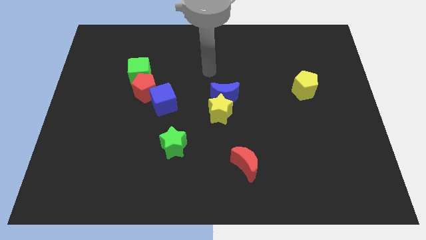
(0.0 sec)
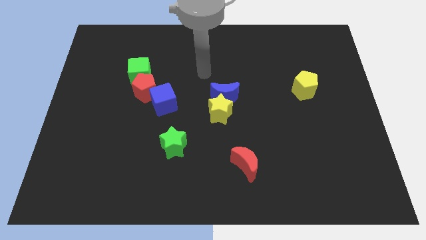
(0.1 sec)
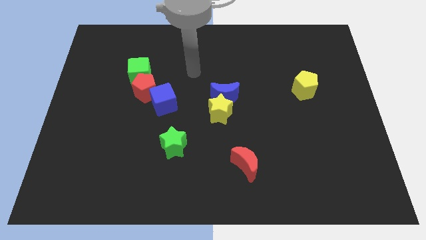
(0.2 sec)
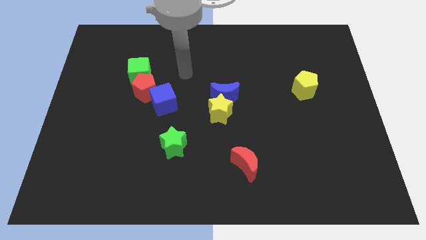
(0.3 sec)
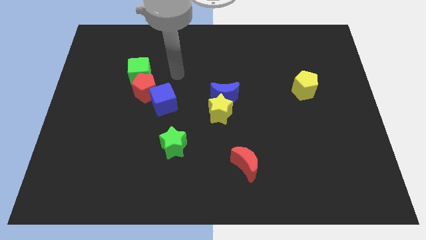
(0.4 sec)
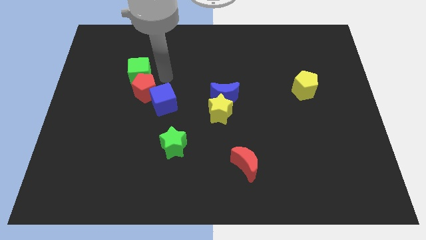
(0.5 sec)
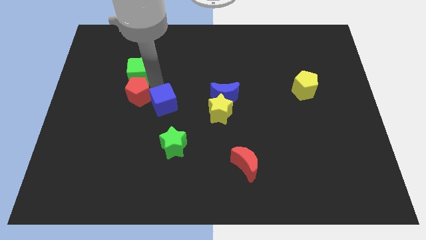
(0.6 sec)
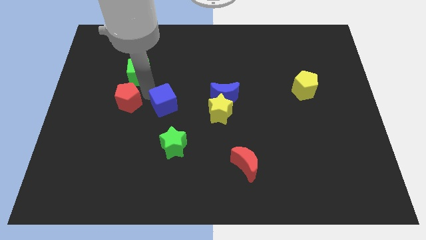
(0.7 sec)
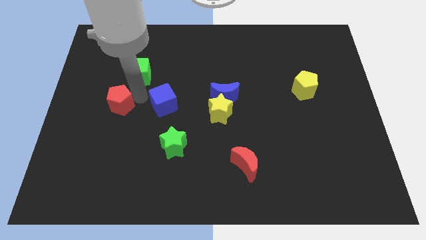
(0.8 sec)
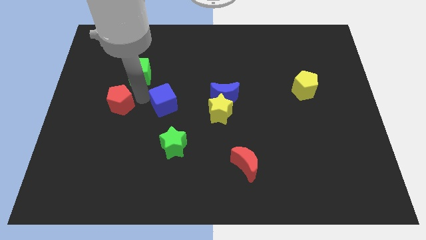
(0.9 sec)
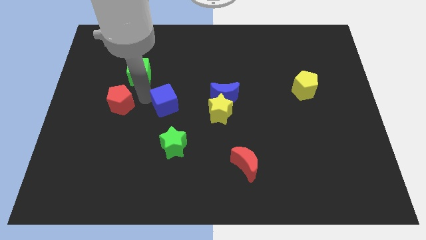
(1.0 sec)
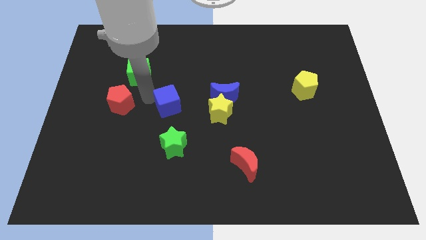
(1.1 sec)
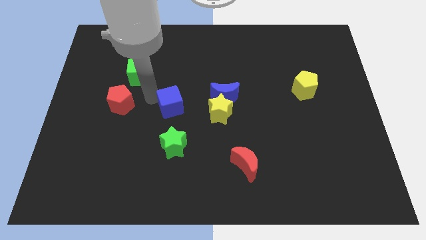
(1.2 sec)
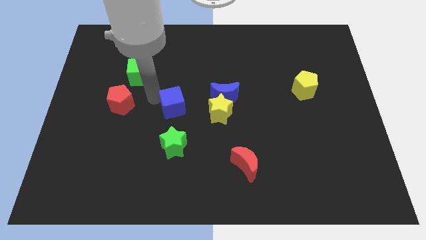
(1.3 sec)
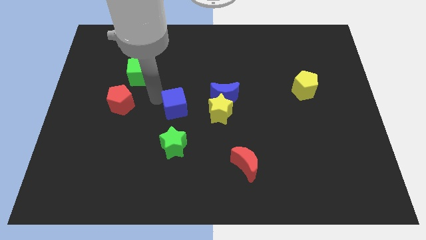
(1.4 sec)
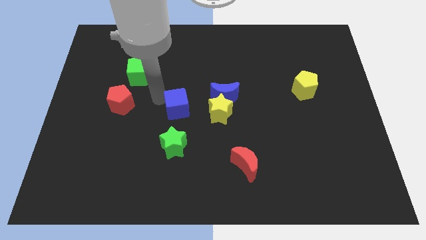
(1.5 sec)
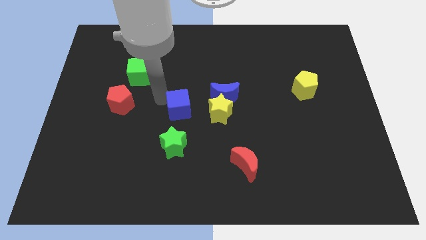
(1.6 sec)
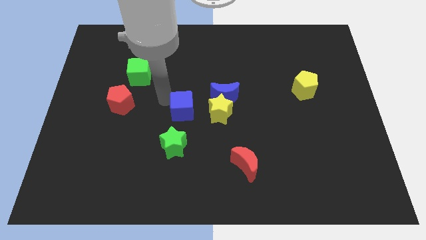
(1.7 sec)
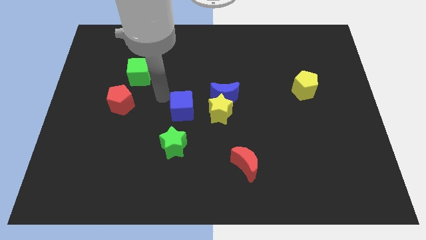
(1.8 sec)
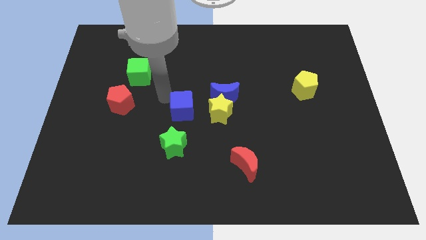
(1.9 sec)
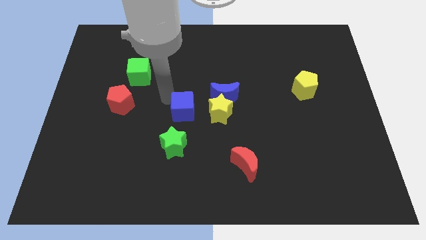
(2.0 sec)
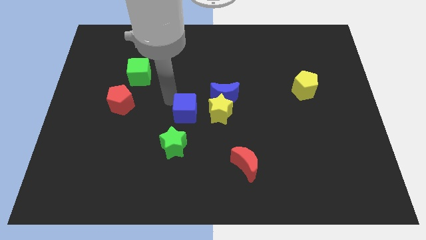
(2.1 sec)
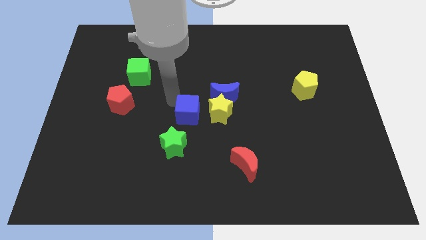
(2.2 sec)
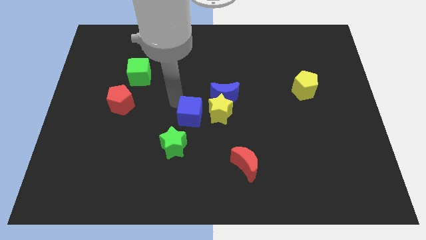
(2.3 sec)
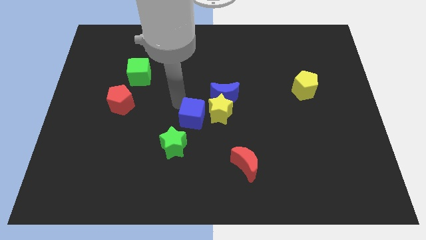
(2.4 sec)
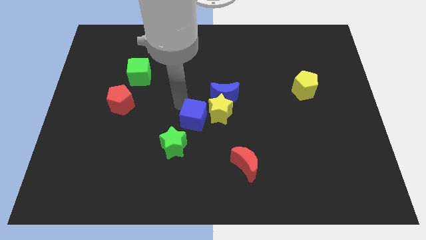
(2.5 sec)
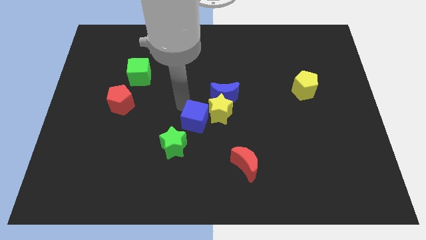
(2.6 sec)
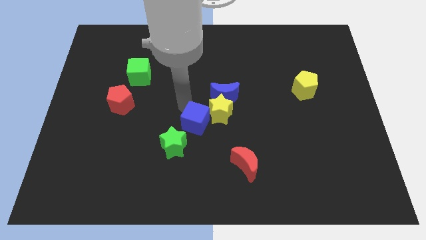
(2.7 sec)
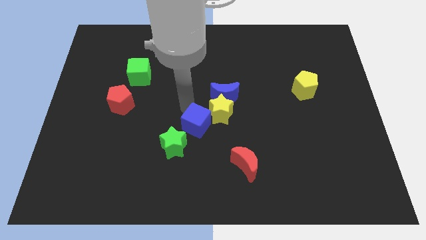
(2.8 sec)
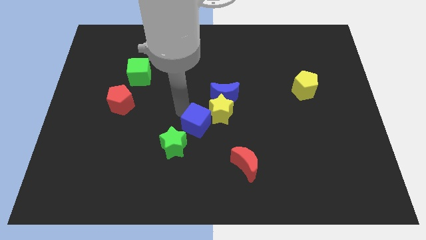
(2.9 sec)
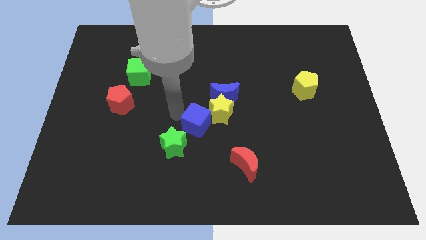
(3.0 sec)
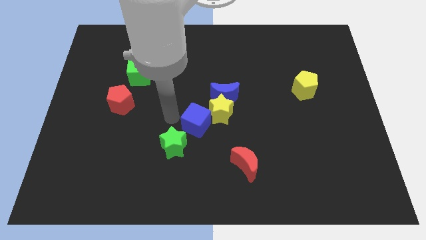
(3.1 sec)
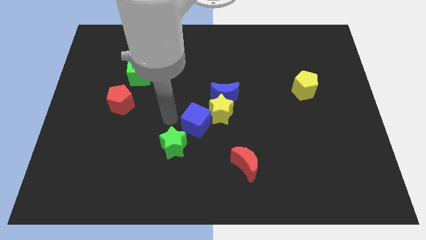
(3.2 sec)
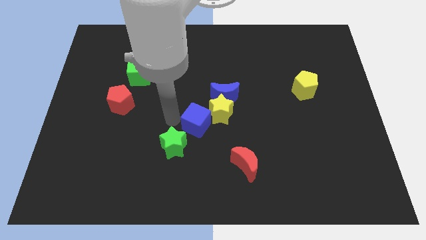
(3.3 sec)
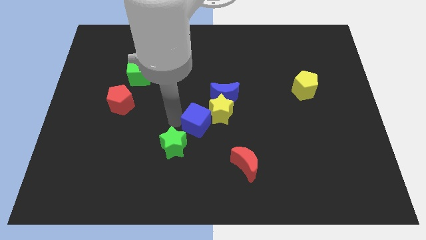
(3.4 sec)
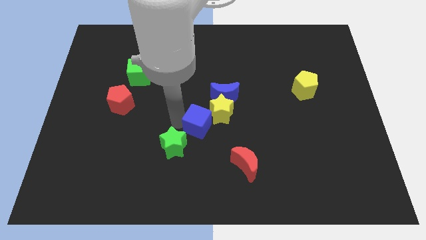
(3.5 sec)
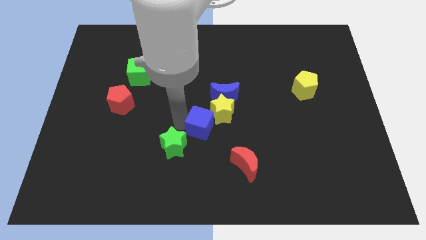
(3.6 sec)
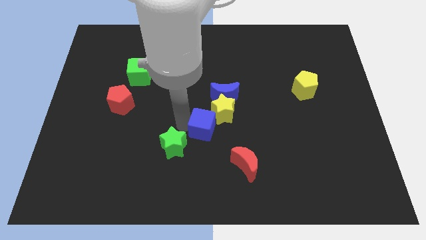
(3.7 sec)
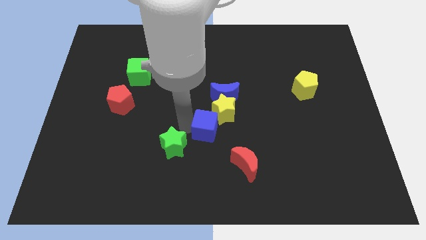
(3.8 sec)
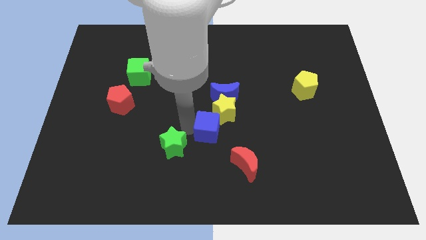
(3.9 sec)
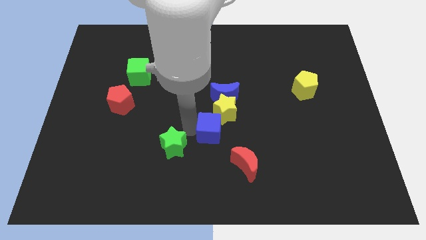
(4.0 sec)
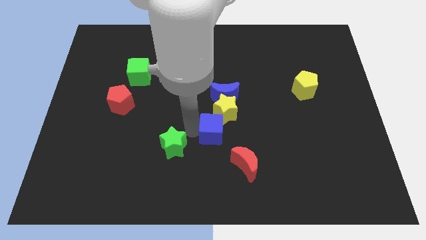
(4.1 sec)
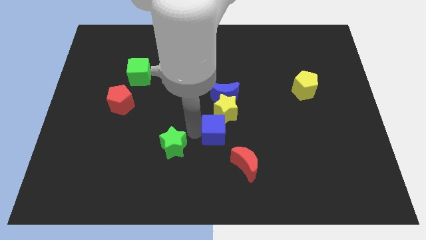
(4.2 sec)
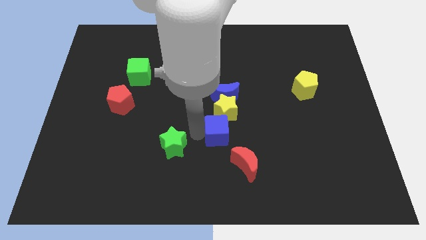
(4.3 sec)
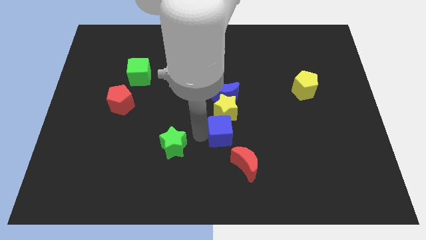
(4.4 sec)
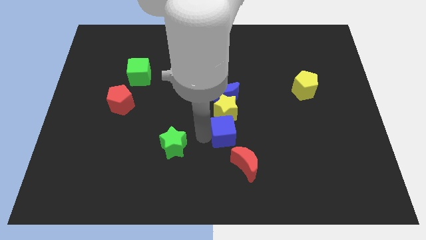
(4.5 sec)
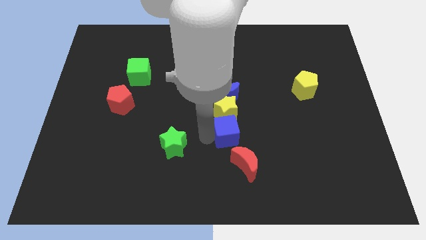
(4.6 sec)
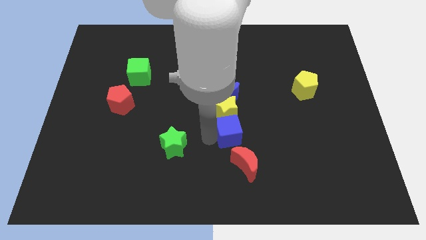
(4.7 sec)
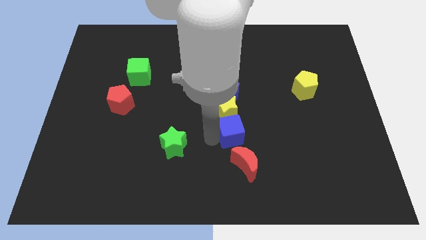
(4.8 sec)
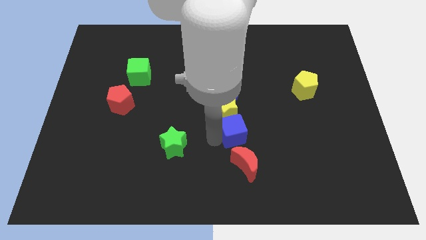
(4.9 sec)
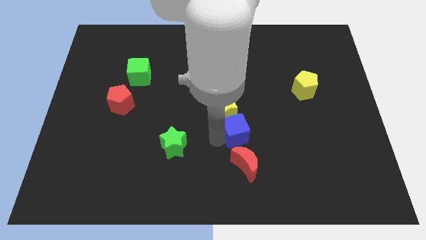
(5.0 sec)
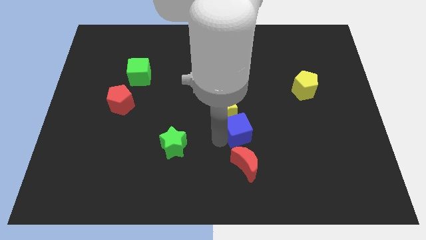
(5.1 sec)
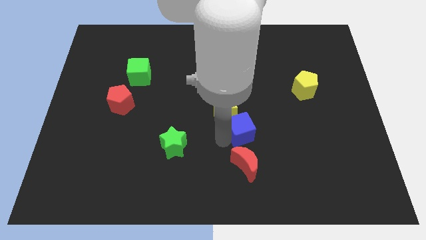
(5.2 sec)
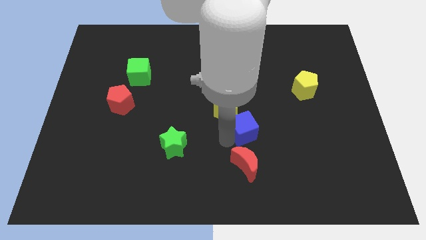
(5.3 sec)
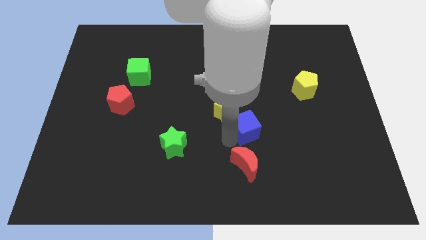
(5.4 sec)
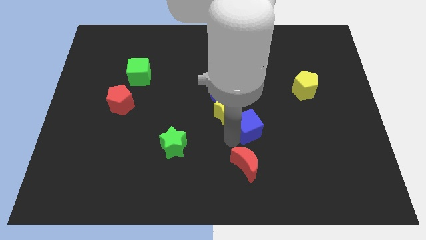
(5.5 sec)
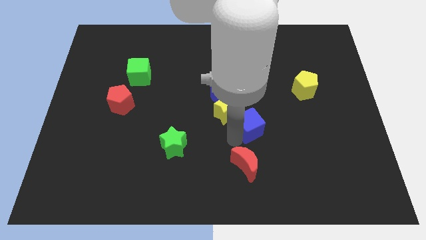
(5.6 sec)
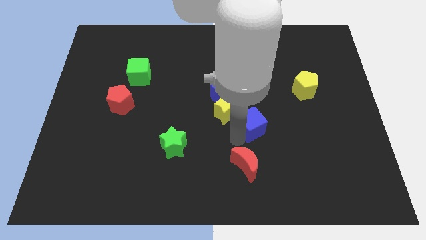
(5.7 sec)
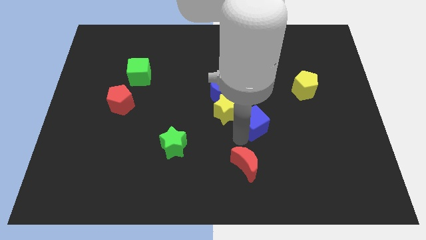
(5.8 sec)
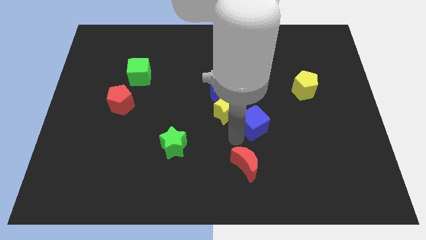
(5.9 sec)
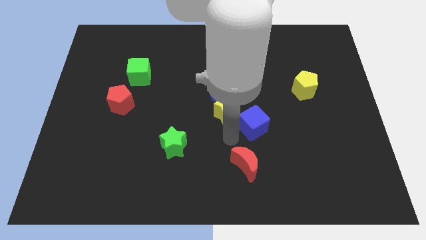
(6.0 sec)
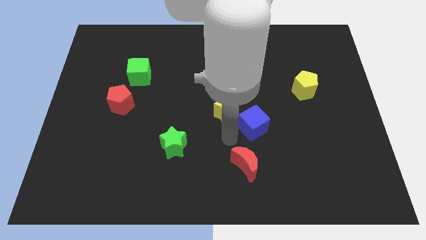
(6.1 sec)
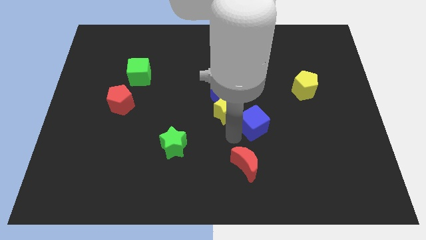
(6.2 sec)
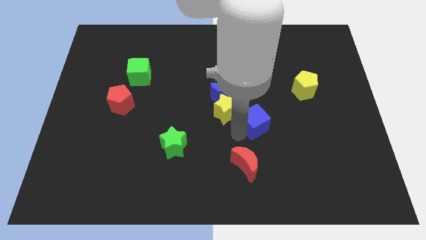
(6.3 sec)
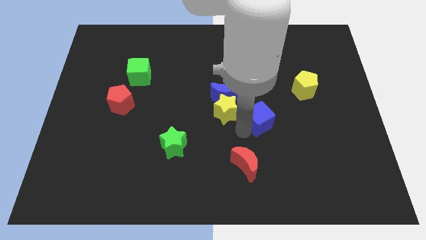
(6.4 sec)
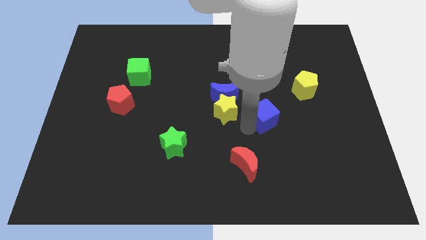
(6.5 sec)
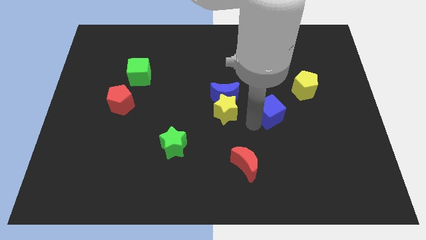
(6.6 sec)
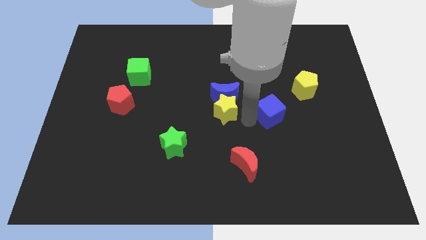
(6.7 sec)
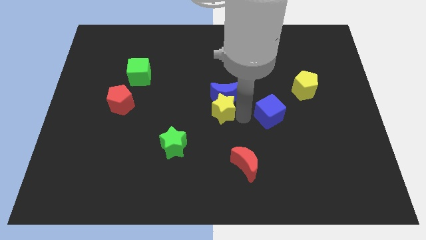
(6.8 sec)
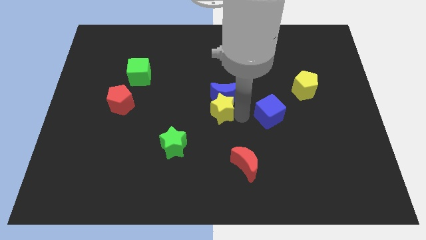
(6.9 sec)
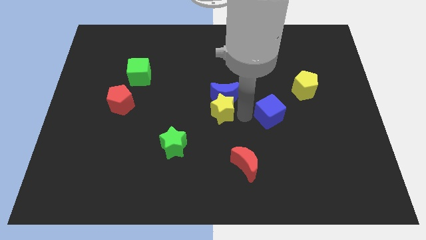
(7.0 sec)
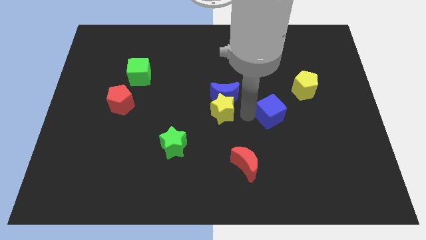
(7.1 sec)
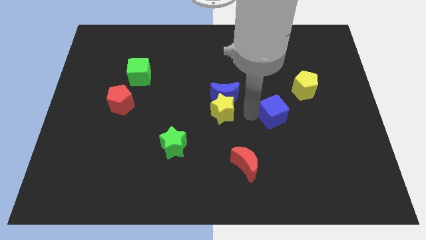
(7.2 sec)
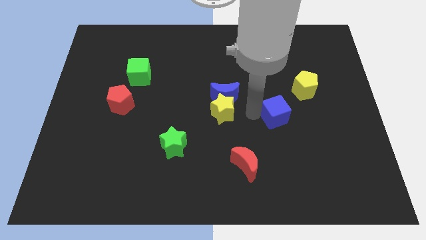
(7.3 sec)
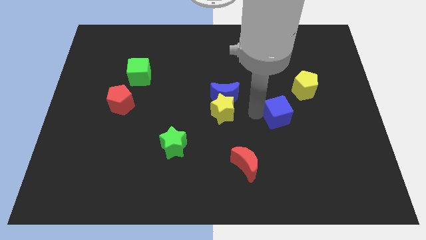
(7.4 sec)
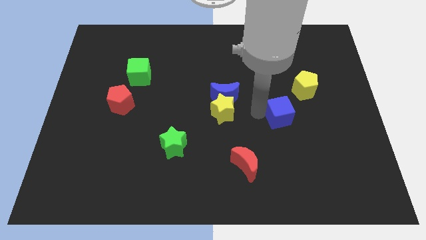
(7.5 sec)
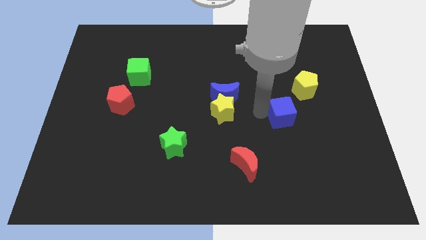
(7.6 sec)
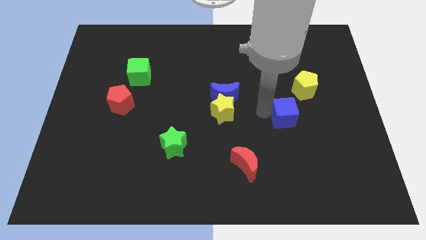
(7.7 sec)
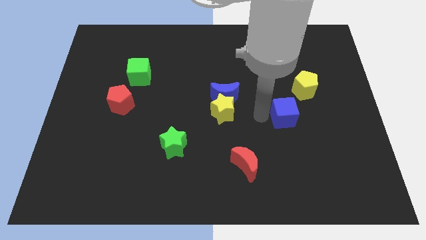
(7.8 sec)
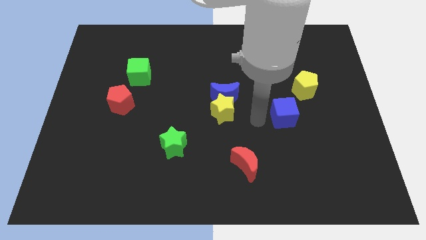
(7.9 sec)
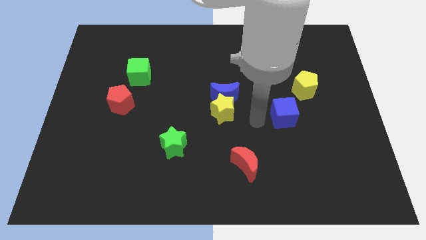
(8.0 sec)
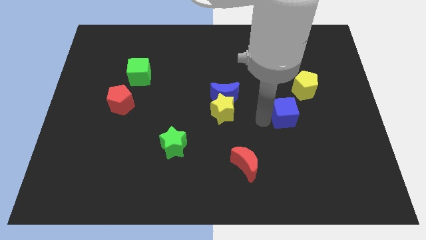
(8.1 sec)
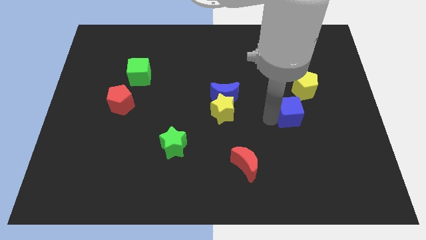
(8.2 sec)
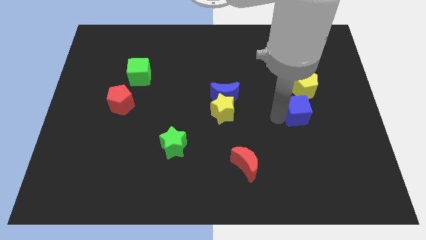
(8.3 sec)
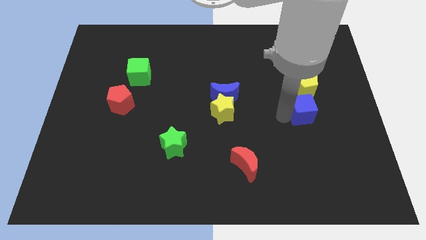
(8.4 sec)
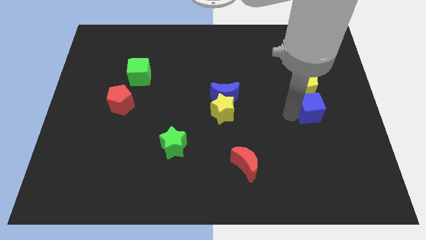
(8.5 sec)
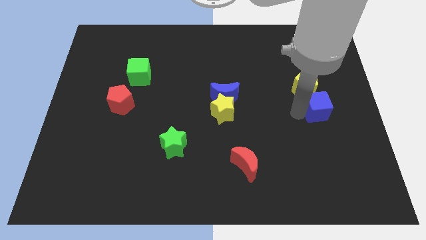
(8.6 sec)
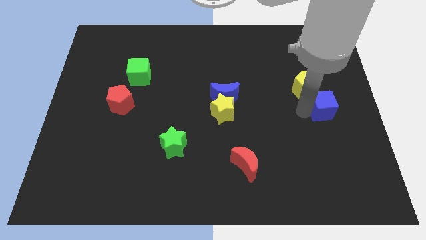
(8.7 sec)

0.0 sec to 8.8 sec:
push the blue cube to the right side
